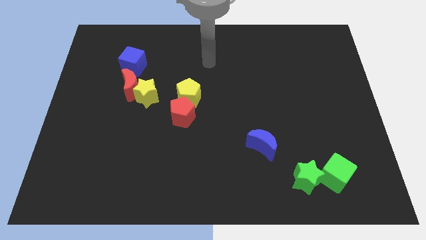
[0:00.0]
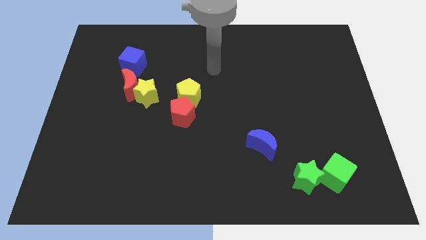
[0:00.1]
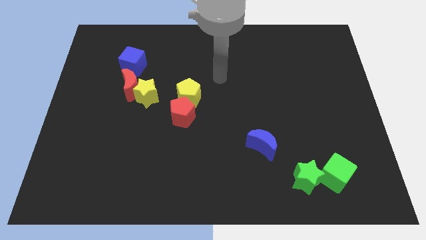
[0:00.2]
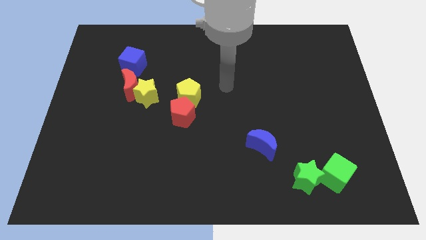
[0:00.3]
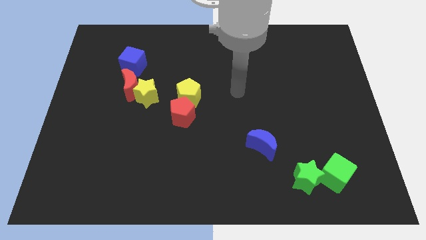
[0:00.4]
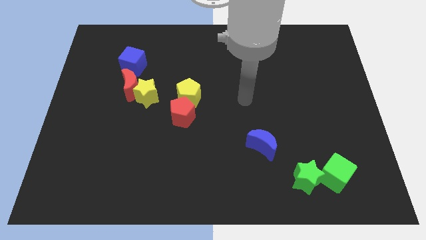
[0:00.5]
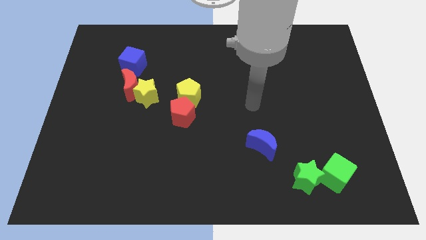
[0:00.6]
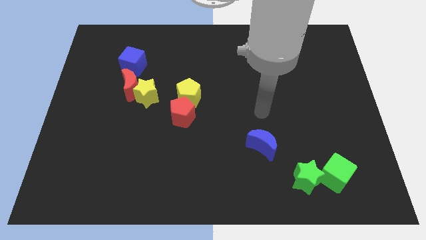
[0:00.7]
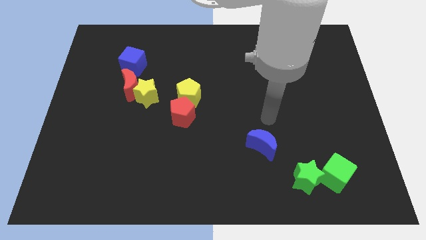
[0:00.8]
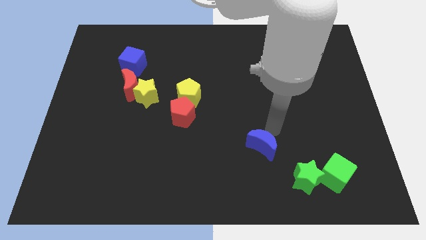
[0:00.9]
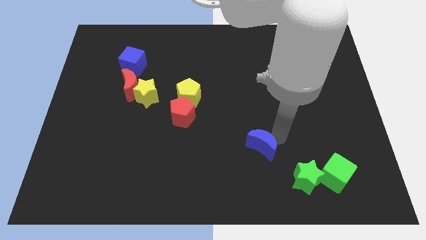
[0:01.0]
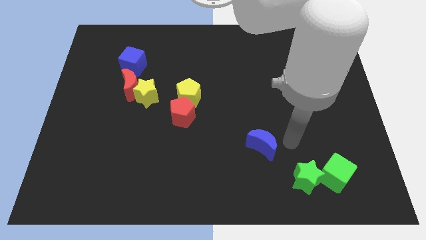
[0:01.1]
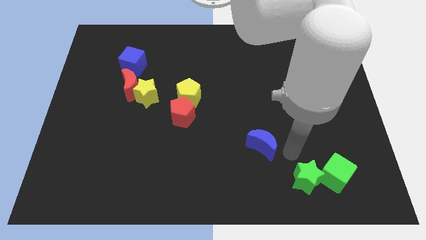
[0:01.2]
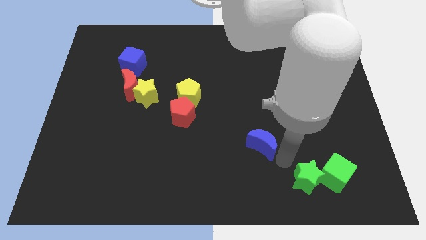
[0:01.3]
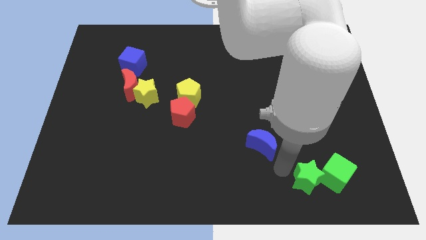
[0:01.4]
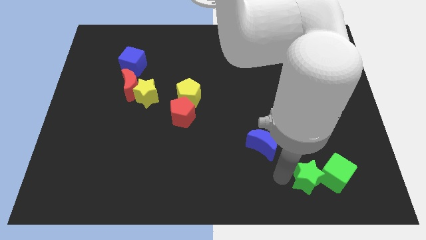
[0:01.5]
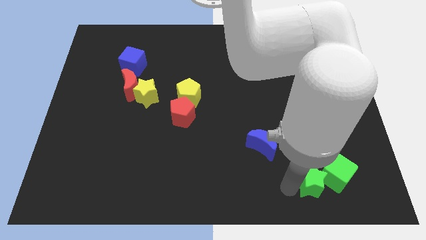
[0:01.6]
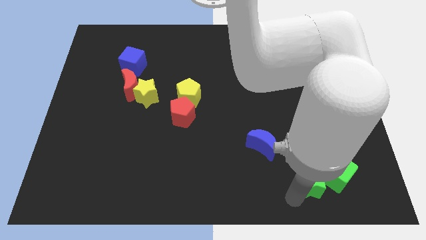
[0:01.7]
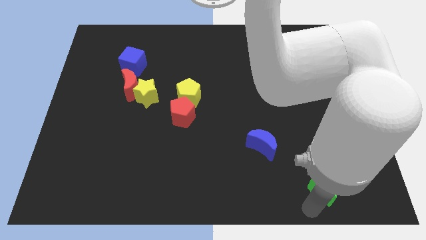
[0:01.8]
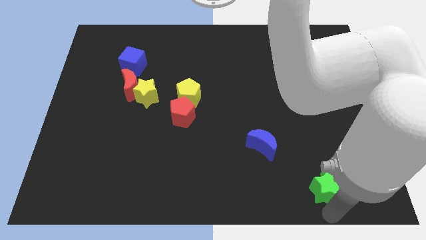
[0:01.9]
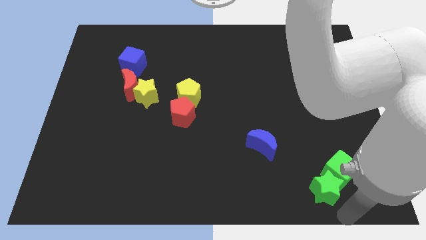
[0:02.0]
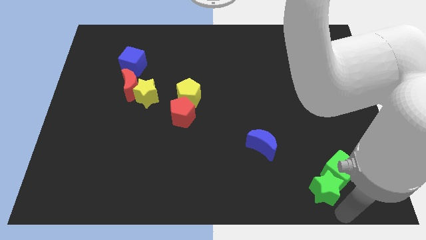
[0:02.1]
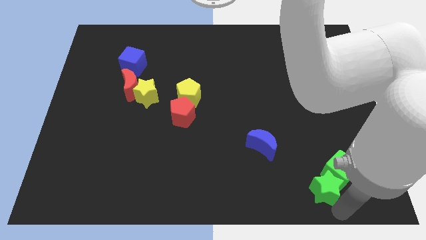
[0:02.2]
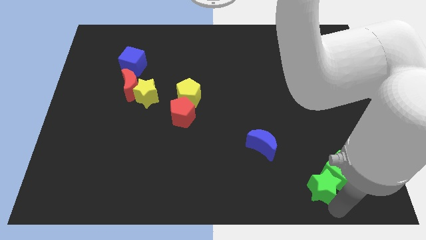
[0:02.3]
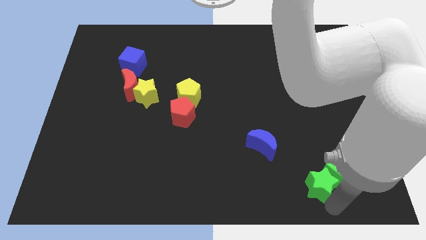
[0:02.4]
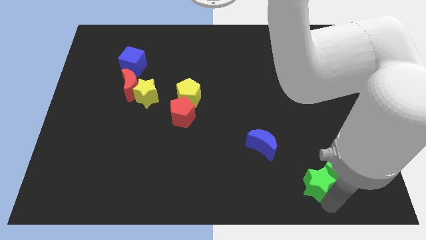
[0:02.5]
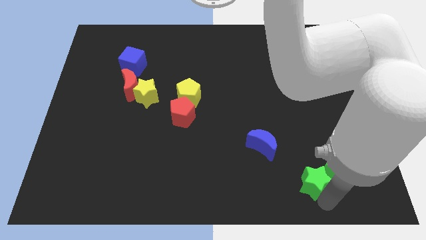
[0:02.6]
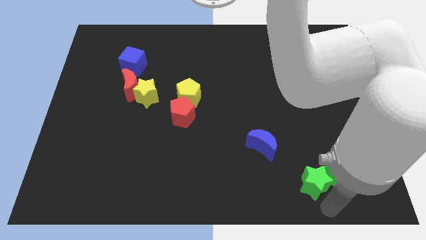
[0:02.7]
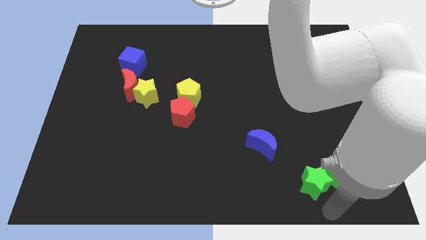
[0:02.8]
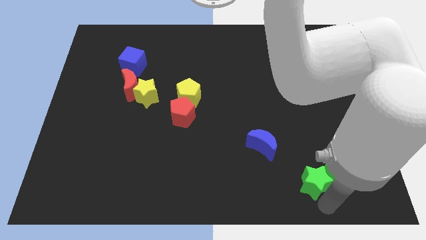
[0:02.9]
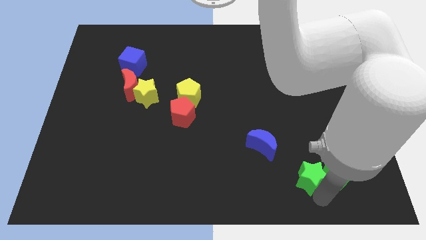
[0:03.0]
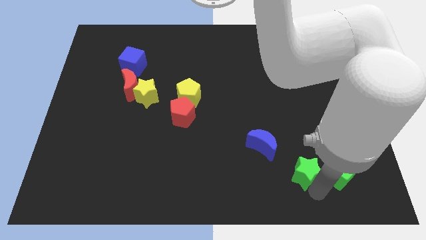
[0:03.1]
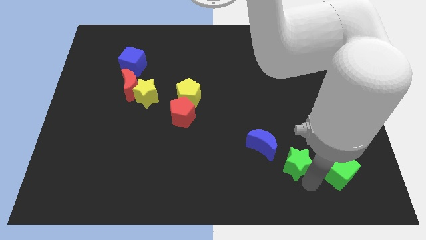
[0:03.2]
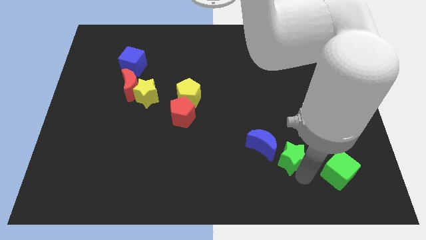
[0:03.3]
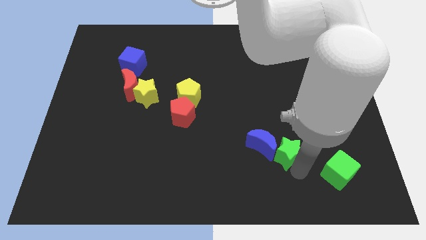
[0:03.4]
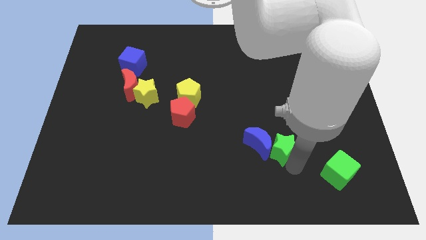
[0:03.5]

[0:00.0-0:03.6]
slightly move the green star upwards and then left

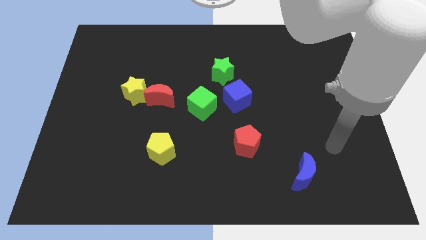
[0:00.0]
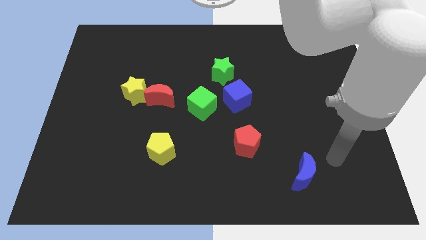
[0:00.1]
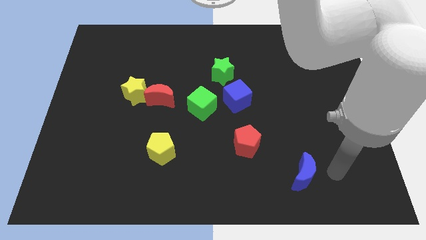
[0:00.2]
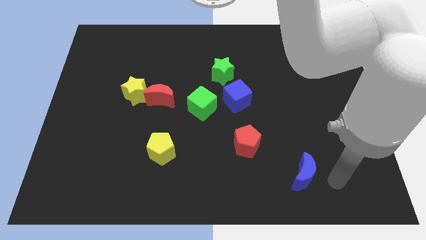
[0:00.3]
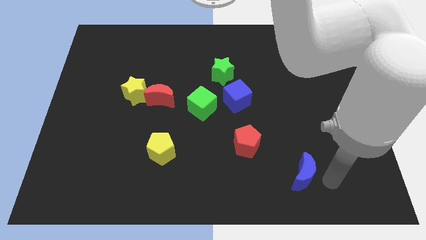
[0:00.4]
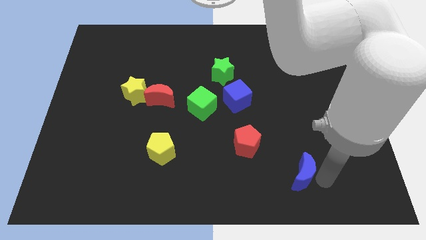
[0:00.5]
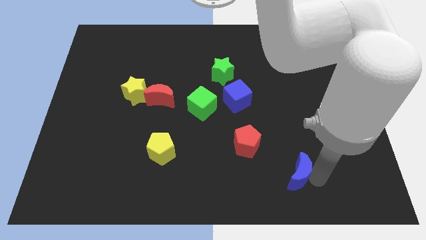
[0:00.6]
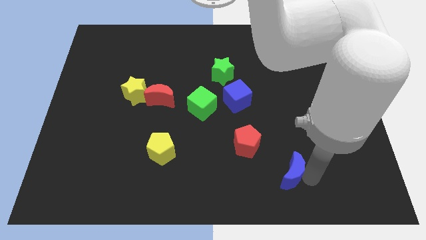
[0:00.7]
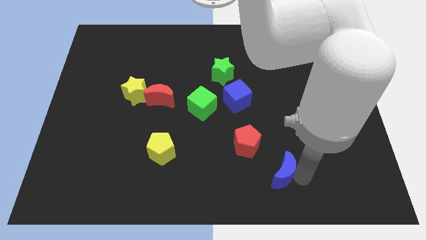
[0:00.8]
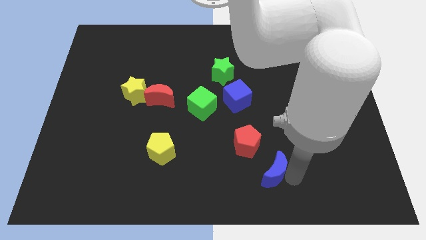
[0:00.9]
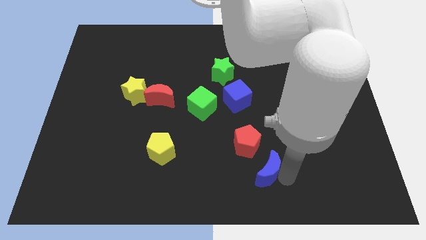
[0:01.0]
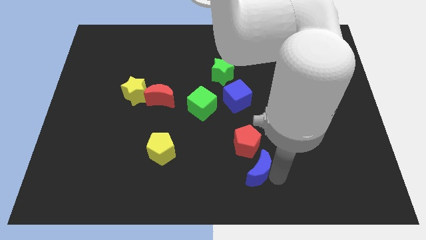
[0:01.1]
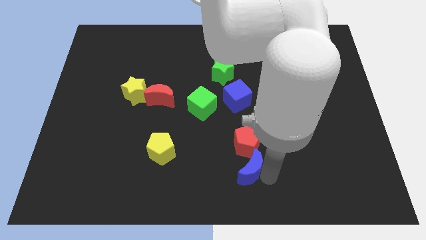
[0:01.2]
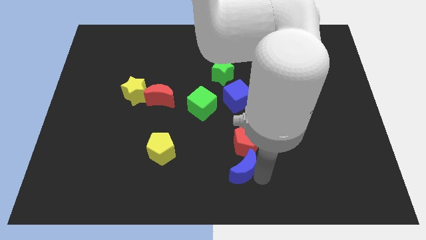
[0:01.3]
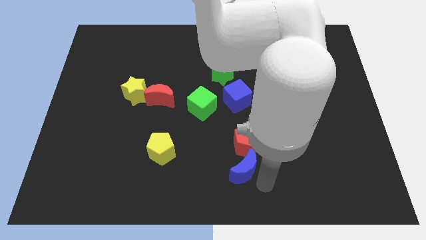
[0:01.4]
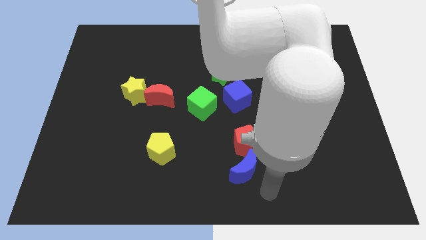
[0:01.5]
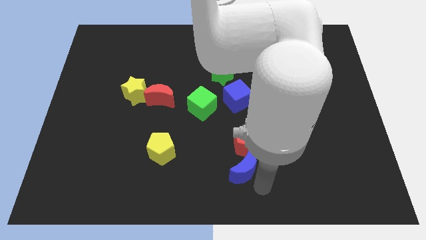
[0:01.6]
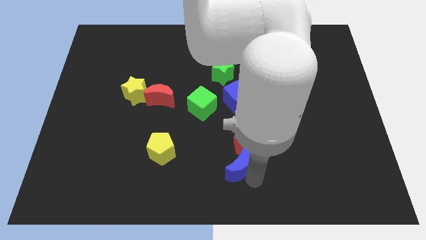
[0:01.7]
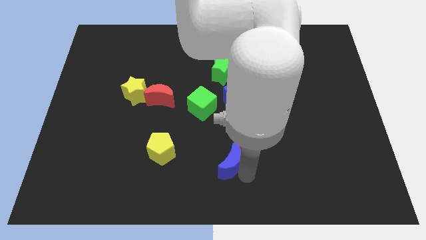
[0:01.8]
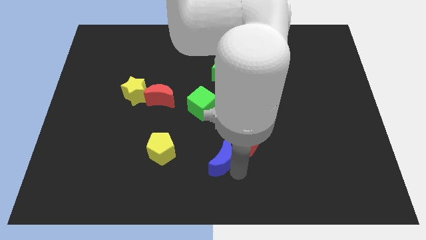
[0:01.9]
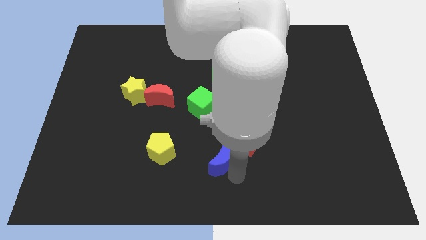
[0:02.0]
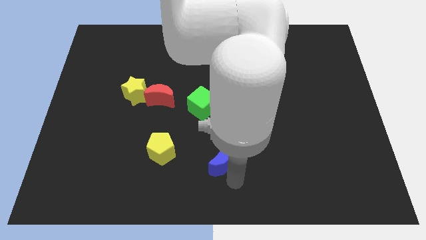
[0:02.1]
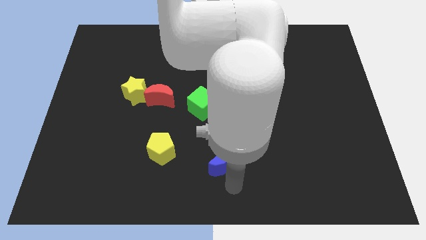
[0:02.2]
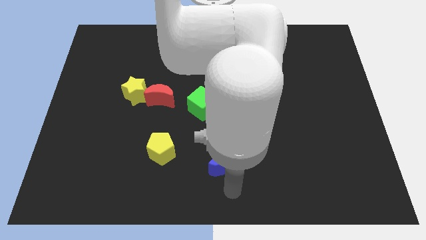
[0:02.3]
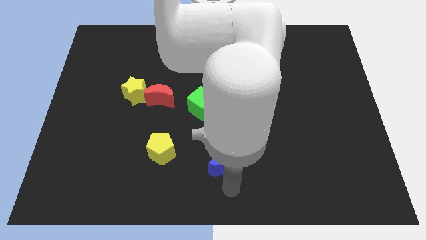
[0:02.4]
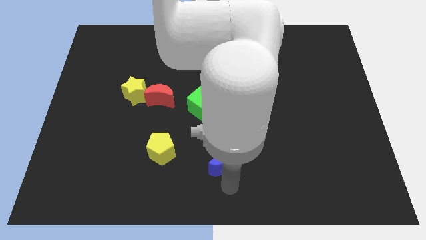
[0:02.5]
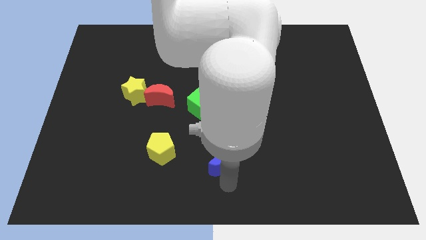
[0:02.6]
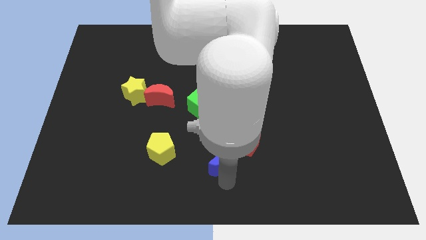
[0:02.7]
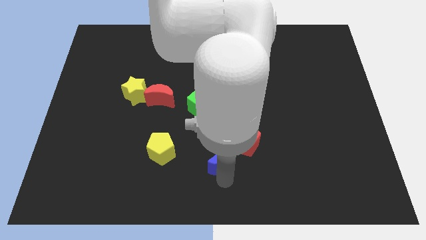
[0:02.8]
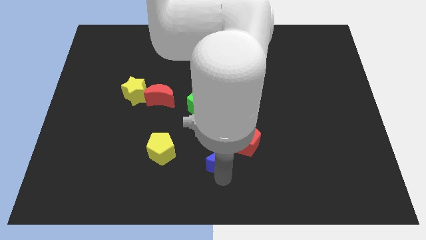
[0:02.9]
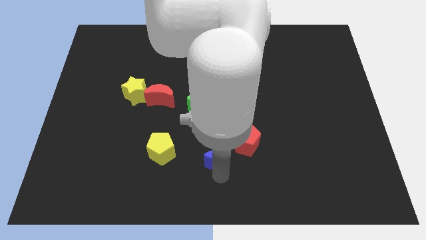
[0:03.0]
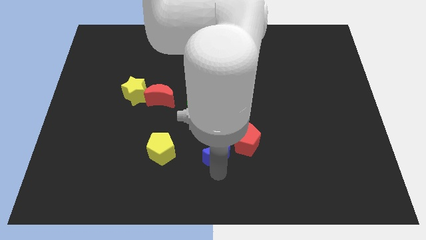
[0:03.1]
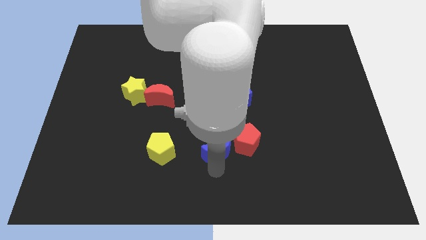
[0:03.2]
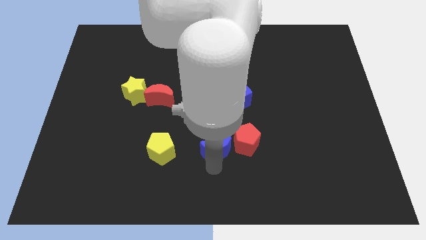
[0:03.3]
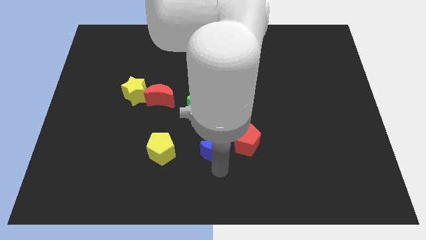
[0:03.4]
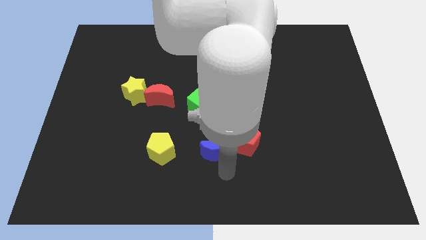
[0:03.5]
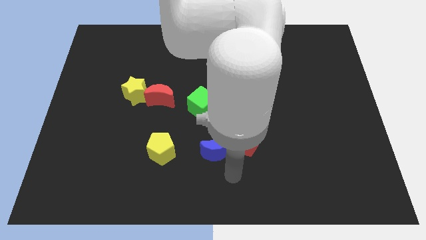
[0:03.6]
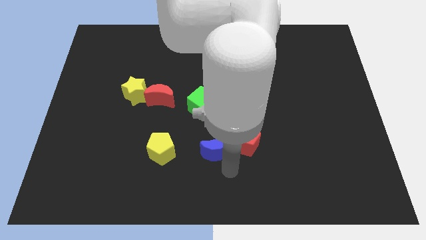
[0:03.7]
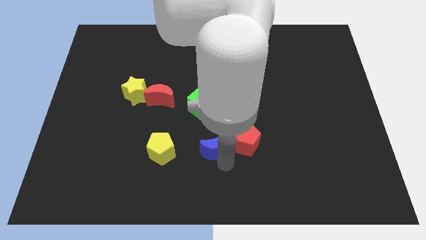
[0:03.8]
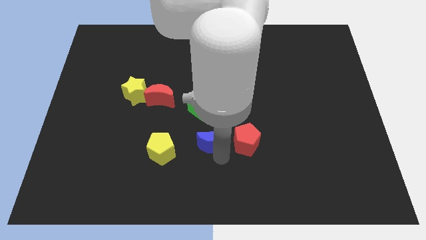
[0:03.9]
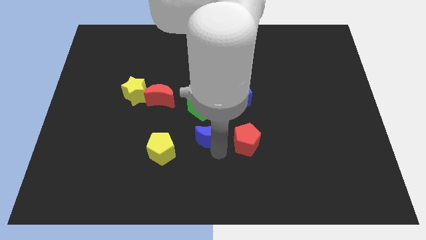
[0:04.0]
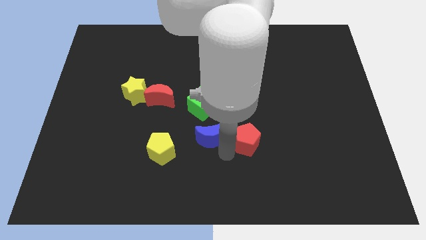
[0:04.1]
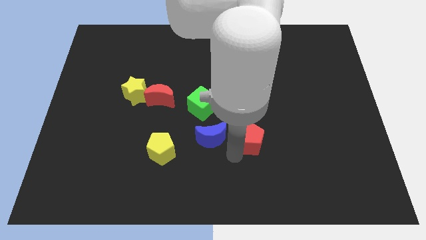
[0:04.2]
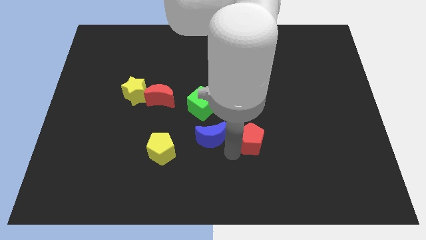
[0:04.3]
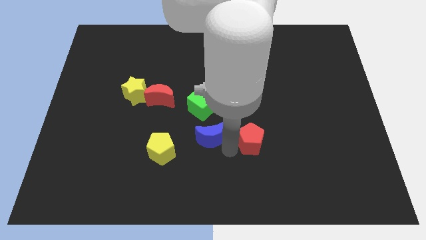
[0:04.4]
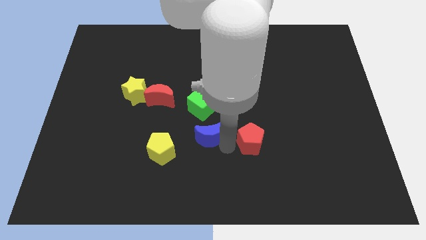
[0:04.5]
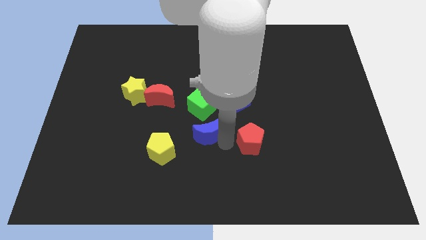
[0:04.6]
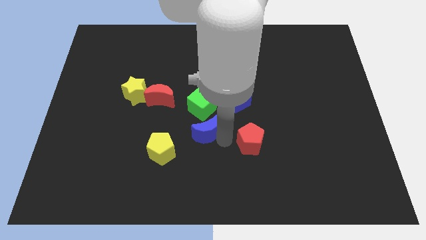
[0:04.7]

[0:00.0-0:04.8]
slide the blue moon upwards and left
